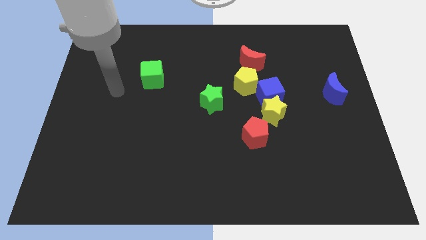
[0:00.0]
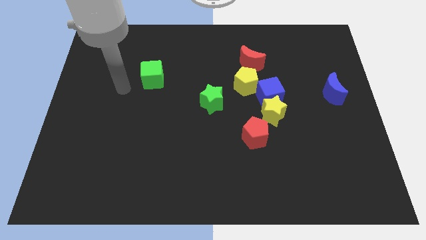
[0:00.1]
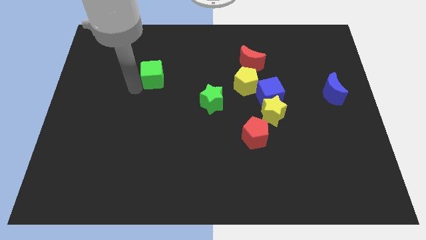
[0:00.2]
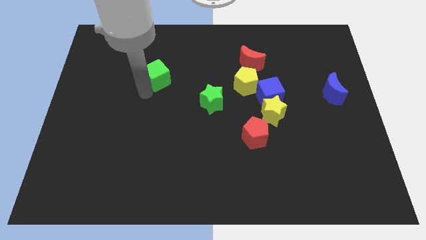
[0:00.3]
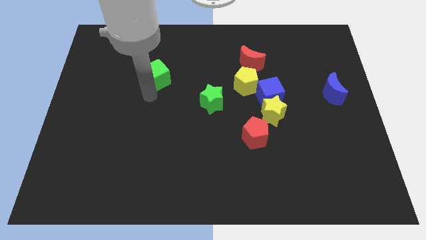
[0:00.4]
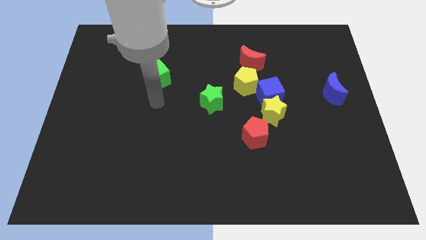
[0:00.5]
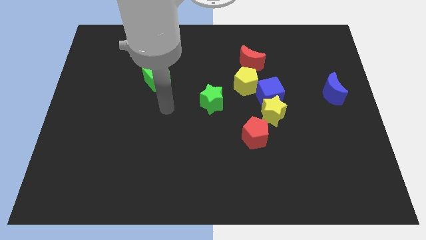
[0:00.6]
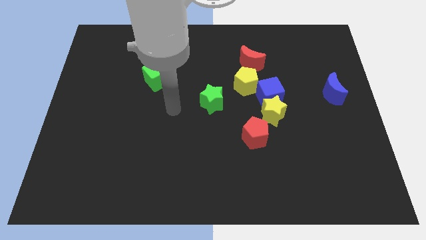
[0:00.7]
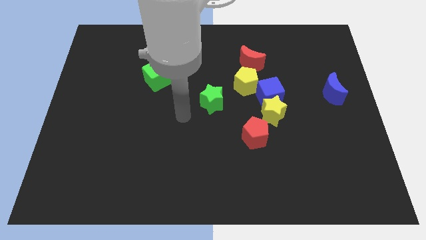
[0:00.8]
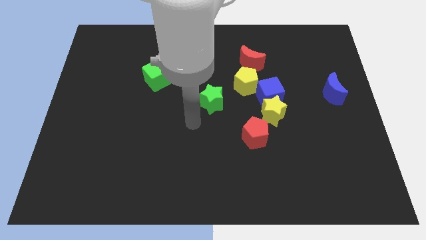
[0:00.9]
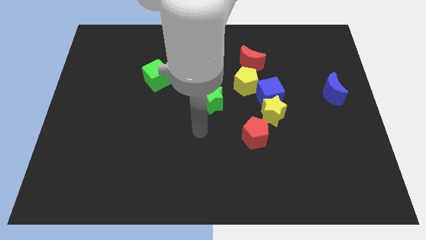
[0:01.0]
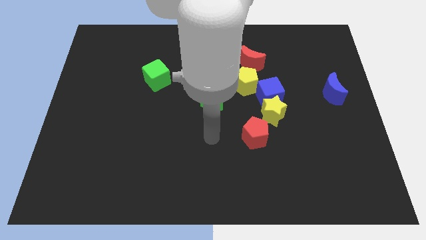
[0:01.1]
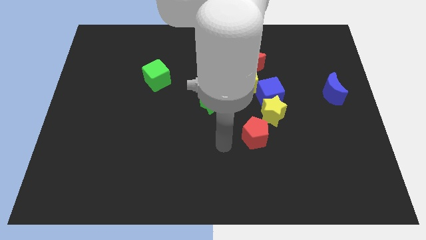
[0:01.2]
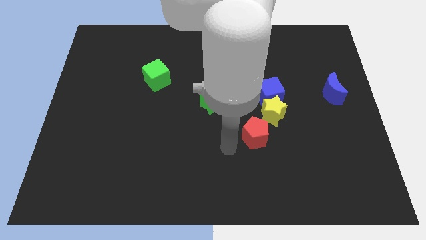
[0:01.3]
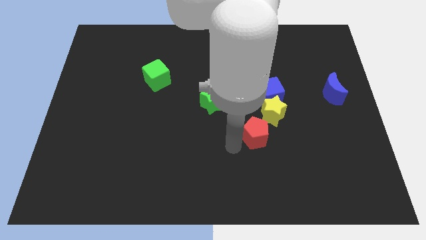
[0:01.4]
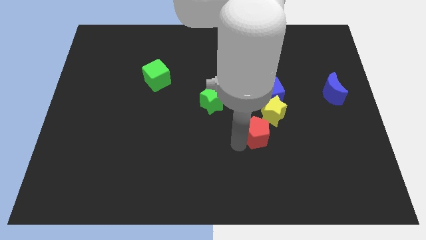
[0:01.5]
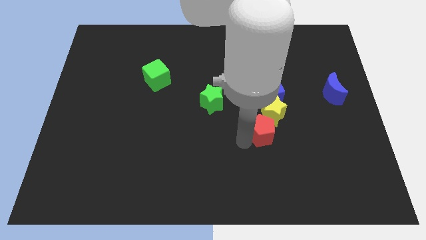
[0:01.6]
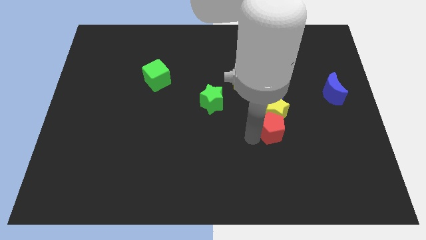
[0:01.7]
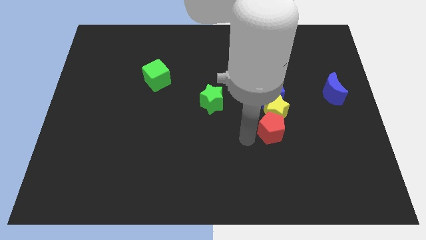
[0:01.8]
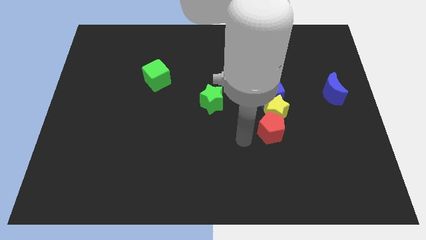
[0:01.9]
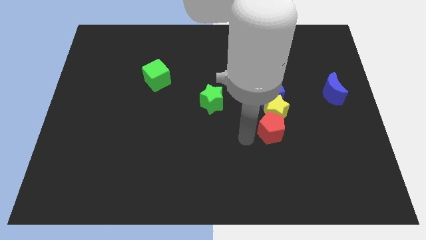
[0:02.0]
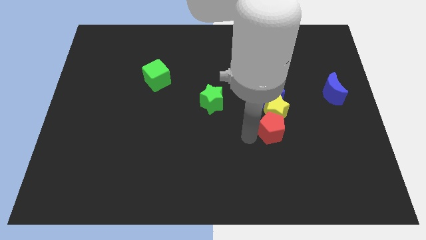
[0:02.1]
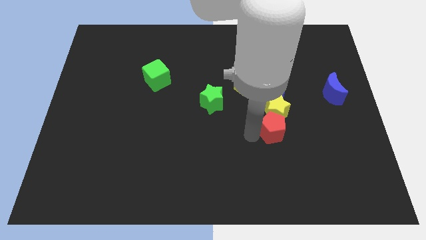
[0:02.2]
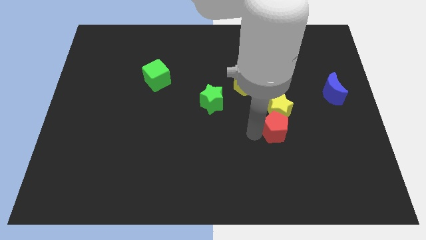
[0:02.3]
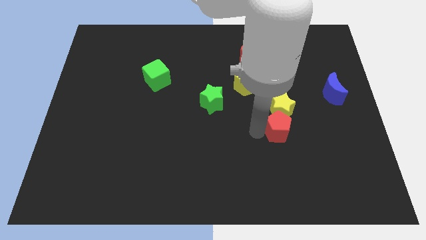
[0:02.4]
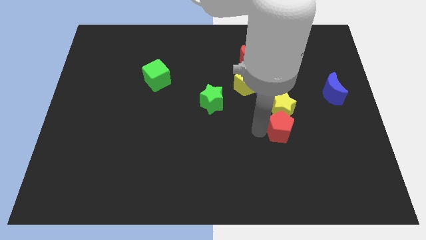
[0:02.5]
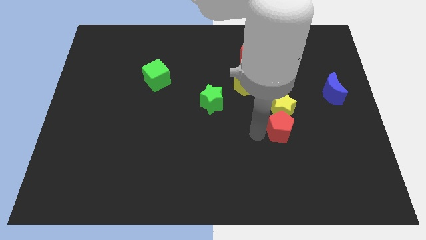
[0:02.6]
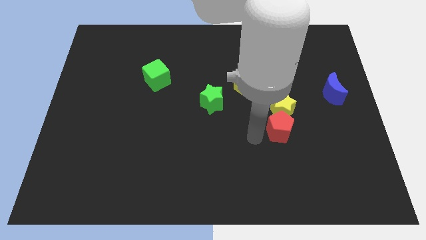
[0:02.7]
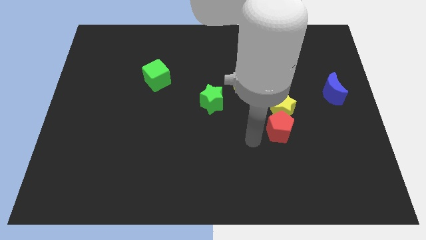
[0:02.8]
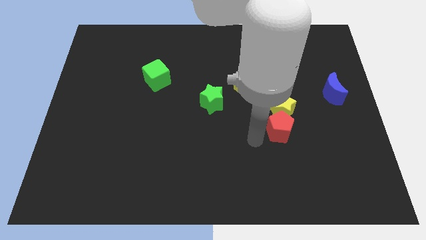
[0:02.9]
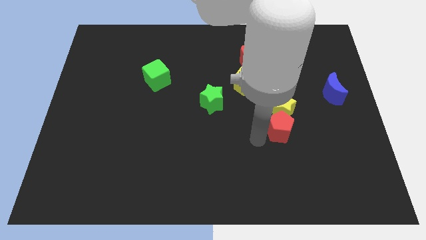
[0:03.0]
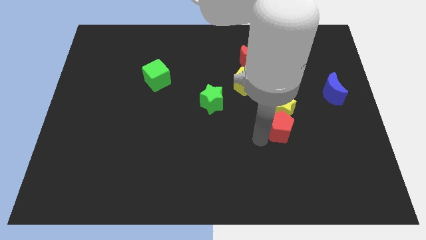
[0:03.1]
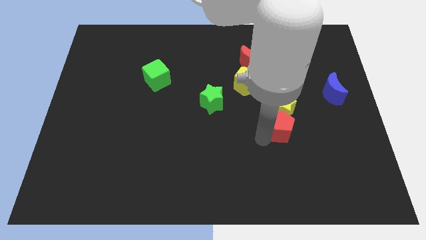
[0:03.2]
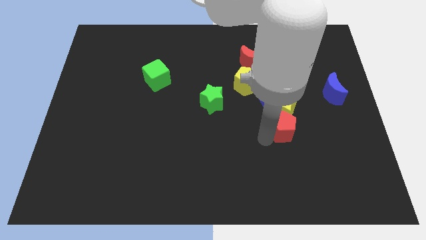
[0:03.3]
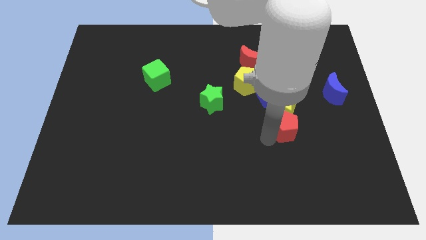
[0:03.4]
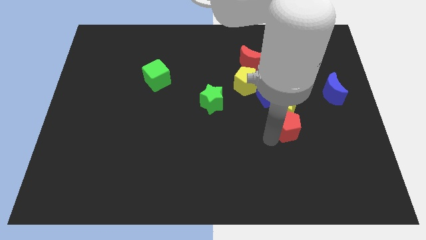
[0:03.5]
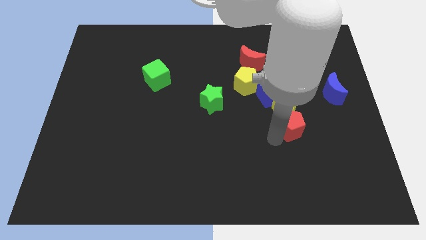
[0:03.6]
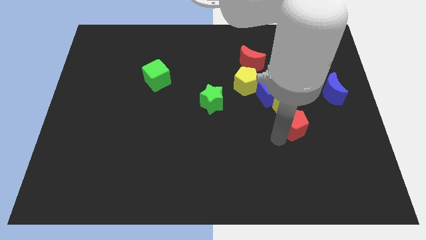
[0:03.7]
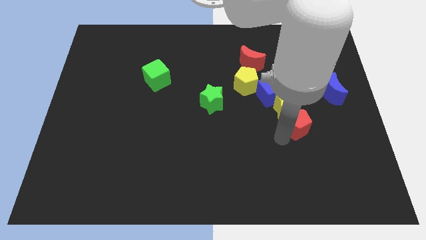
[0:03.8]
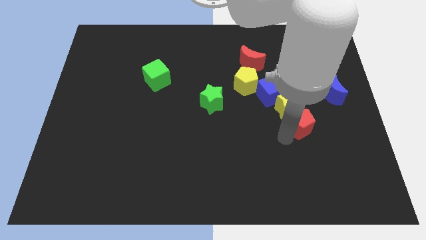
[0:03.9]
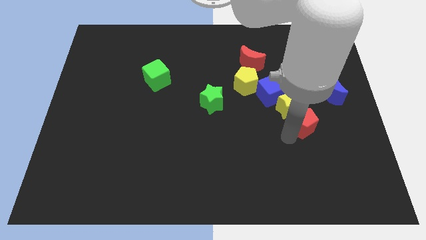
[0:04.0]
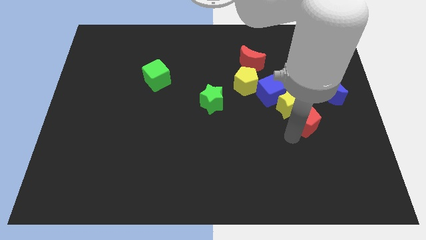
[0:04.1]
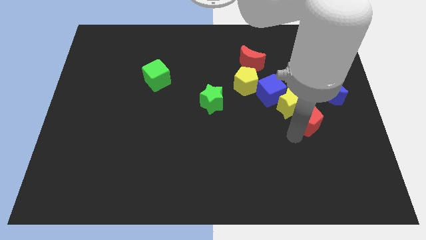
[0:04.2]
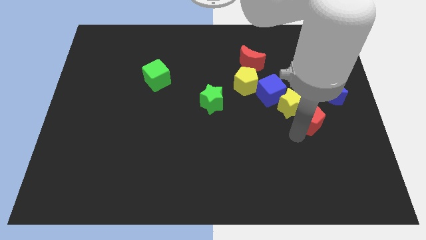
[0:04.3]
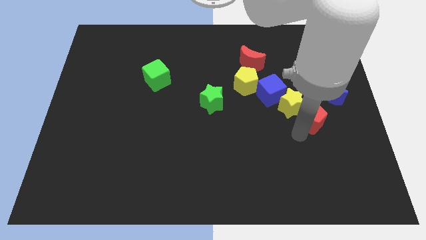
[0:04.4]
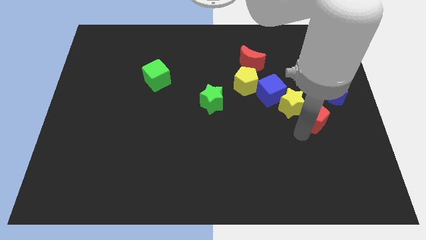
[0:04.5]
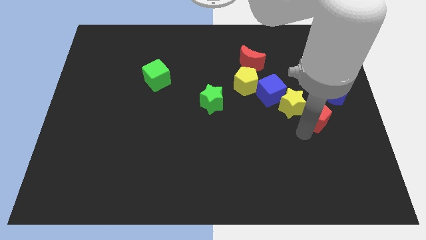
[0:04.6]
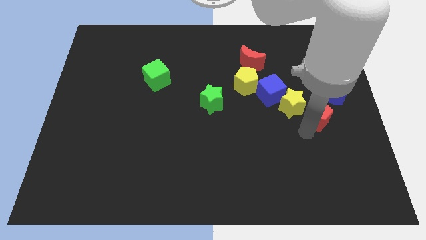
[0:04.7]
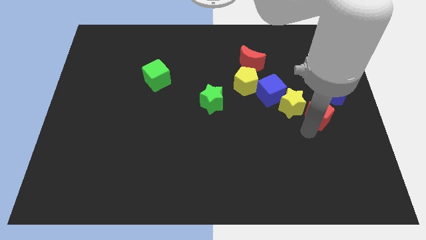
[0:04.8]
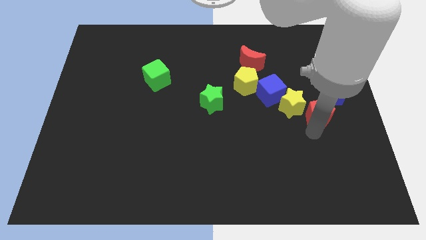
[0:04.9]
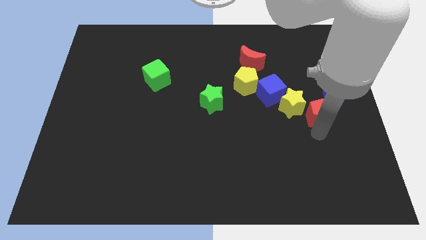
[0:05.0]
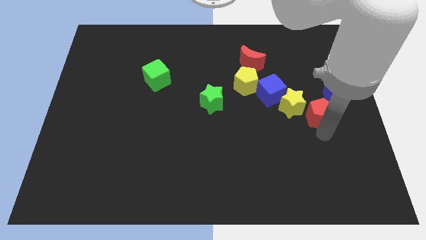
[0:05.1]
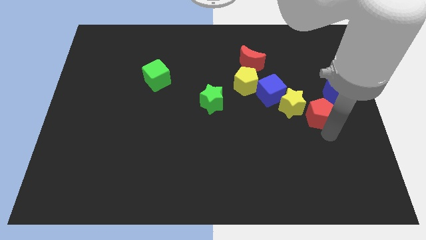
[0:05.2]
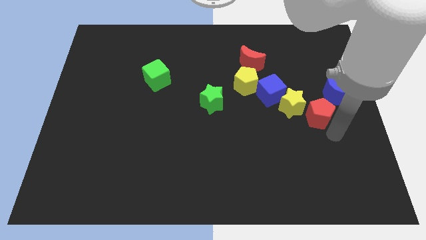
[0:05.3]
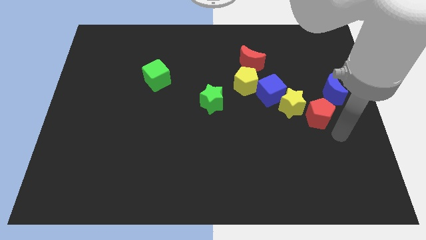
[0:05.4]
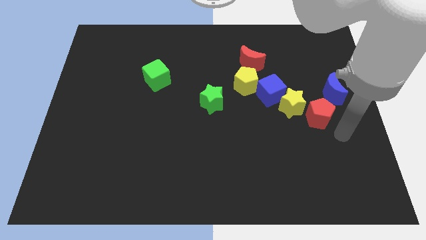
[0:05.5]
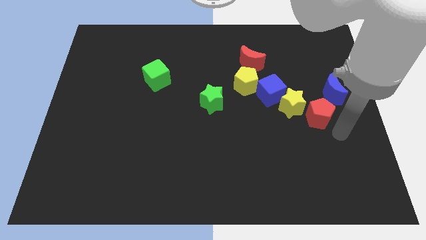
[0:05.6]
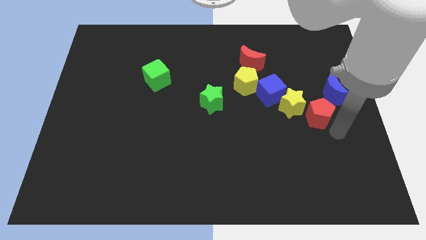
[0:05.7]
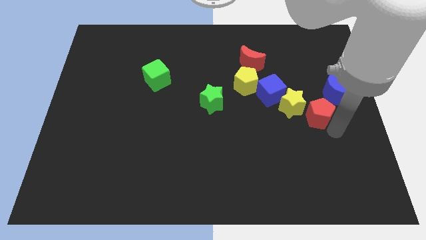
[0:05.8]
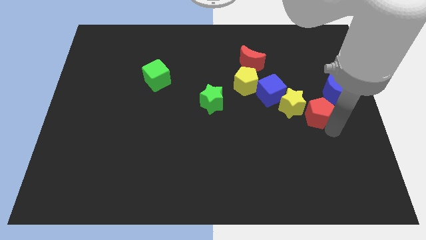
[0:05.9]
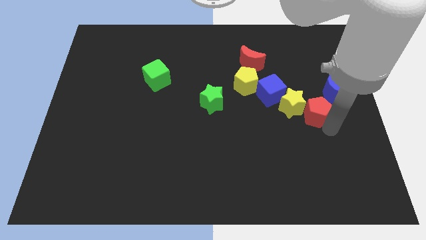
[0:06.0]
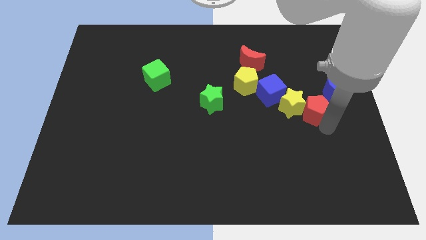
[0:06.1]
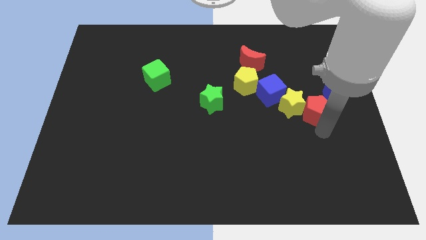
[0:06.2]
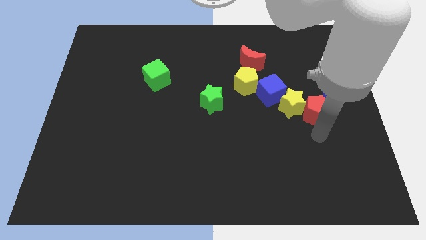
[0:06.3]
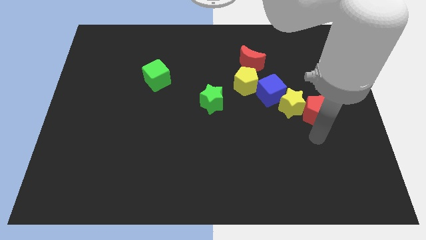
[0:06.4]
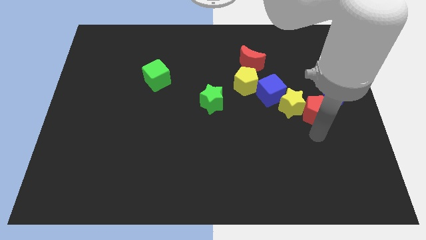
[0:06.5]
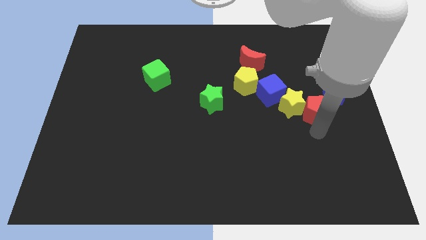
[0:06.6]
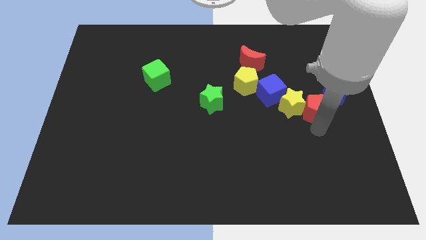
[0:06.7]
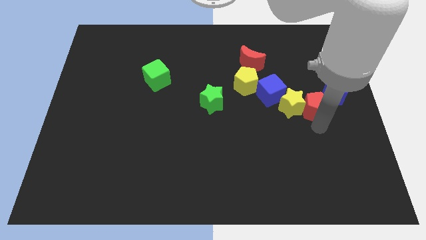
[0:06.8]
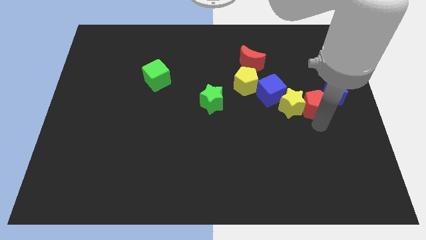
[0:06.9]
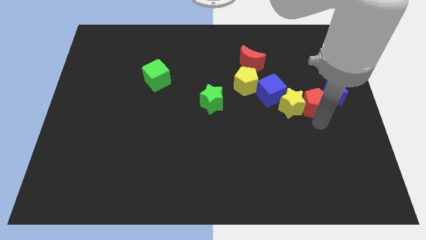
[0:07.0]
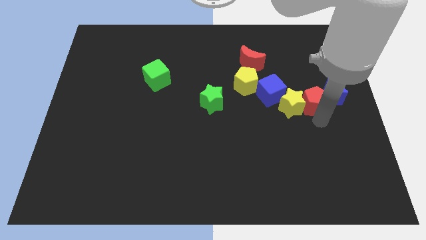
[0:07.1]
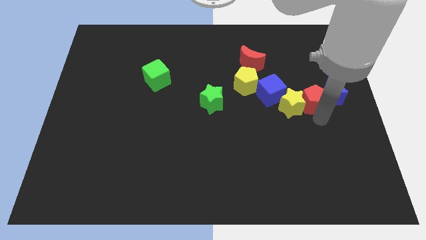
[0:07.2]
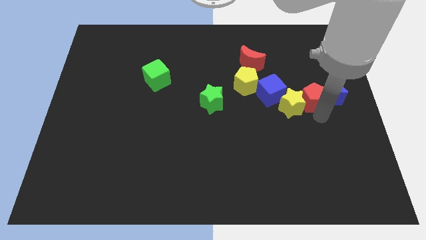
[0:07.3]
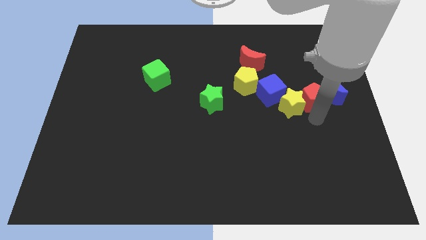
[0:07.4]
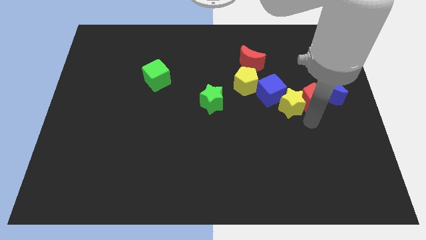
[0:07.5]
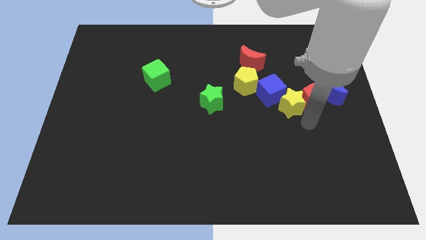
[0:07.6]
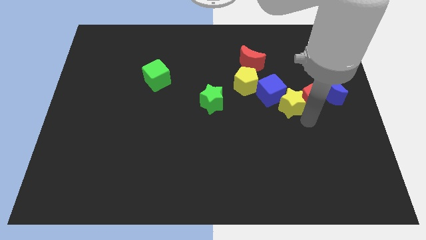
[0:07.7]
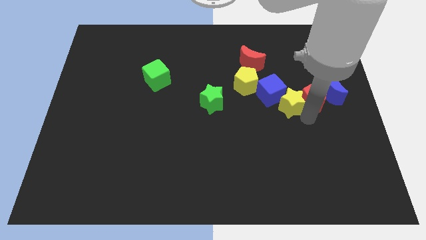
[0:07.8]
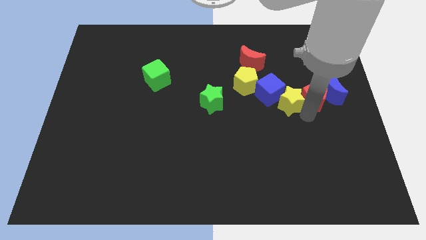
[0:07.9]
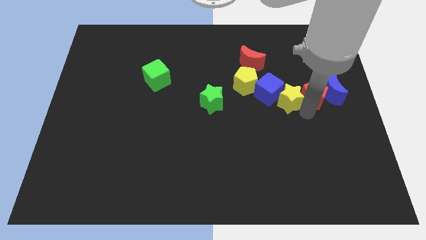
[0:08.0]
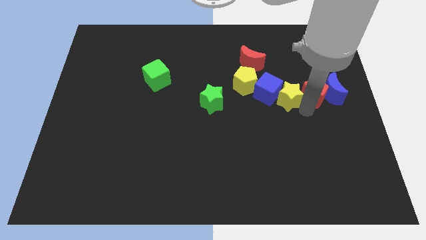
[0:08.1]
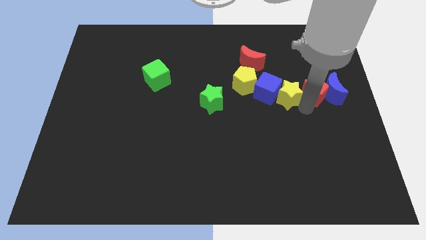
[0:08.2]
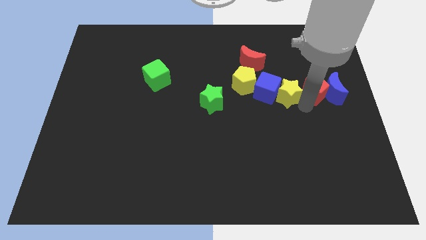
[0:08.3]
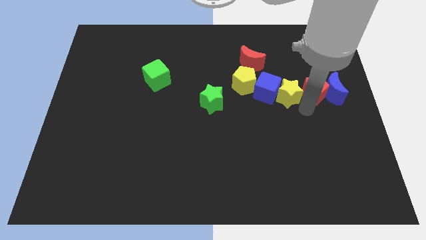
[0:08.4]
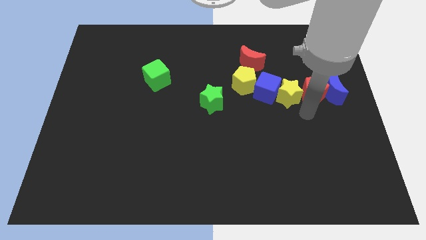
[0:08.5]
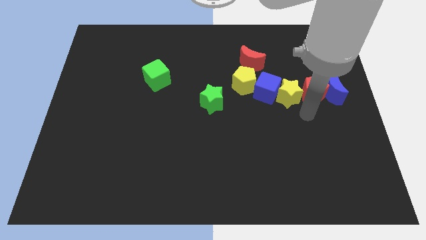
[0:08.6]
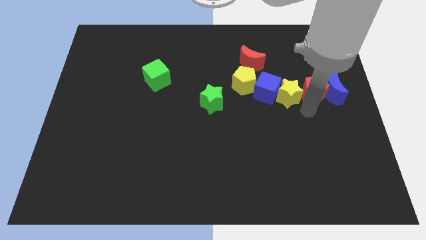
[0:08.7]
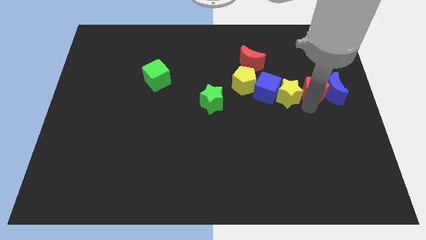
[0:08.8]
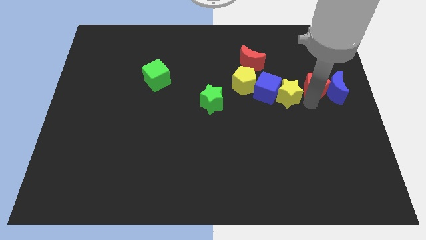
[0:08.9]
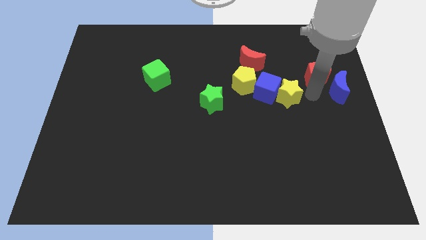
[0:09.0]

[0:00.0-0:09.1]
slide the red pentagon to the top of the blue moon
